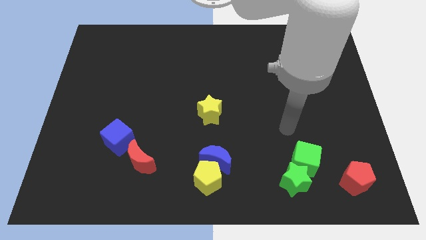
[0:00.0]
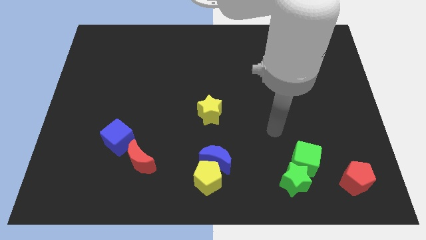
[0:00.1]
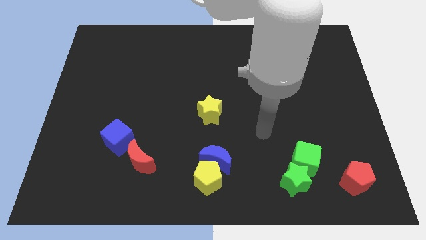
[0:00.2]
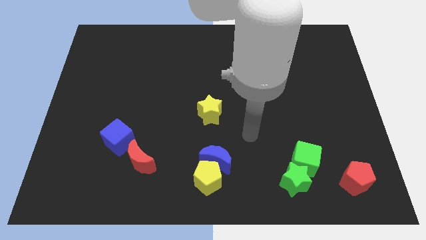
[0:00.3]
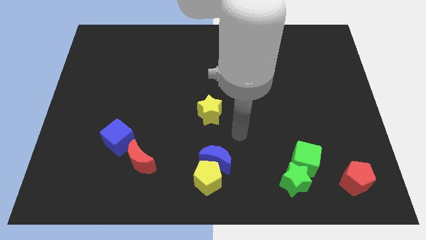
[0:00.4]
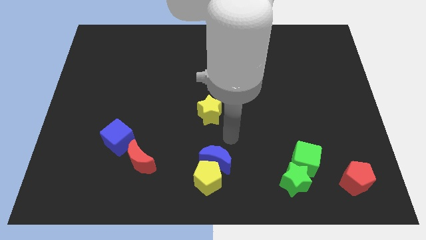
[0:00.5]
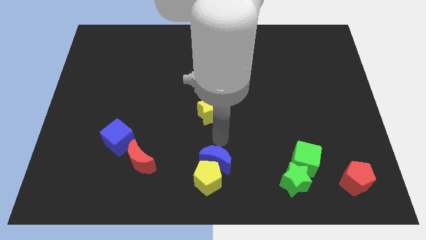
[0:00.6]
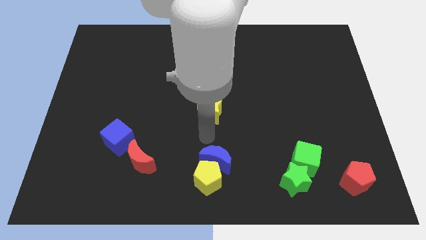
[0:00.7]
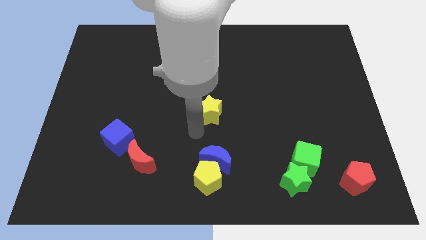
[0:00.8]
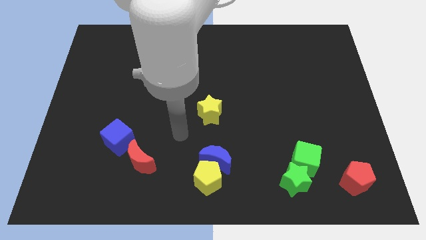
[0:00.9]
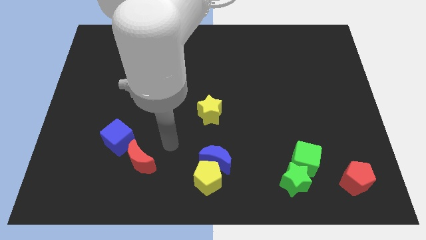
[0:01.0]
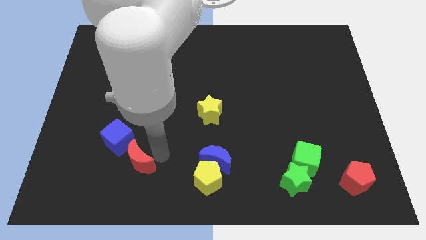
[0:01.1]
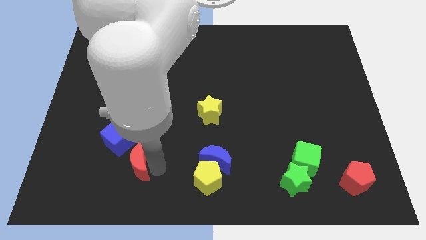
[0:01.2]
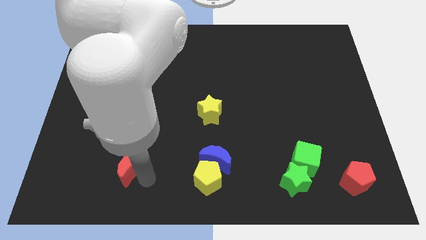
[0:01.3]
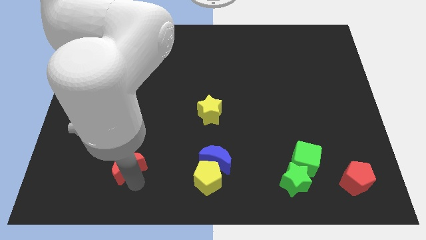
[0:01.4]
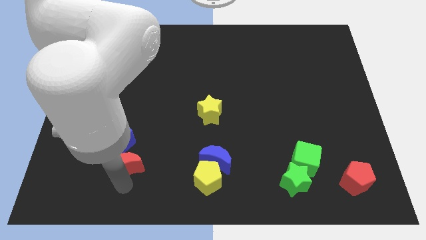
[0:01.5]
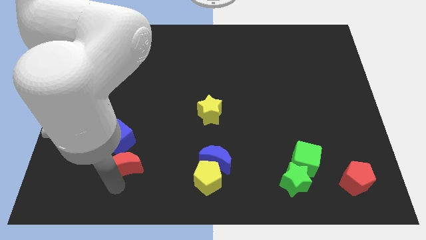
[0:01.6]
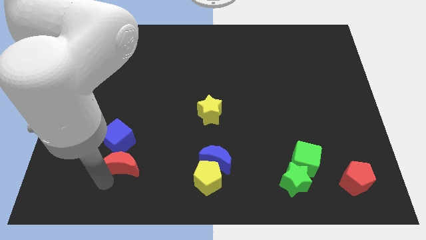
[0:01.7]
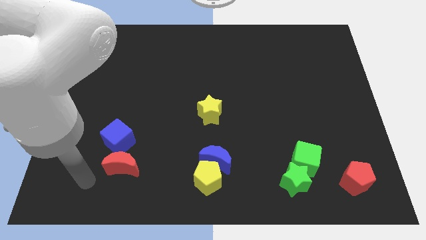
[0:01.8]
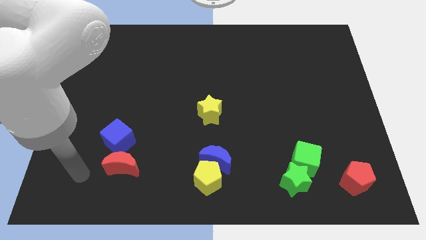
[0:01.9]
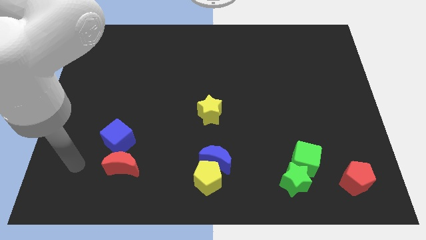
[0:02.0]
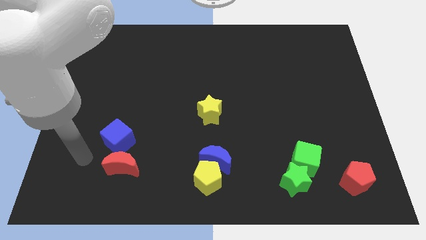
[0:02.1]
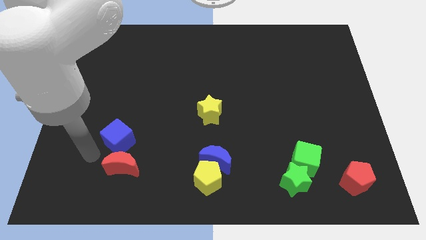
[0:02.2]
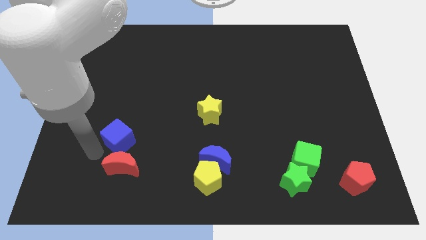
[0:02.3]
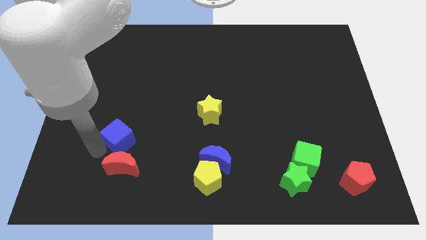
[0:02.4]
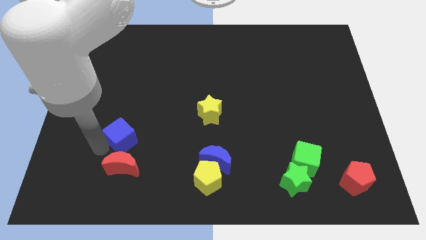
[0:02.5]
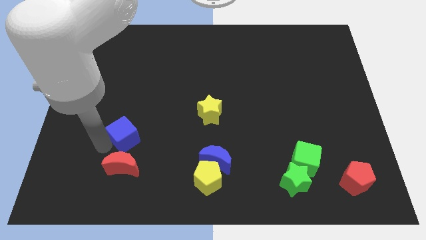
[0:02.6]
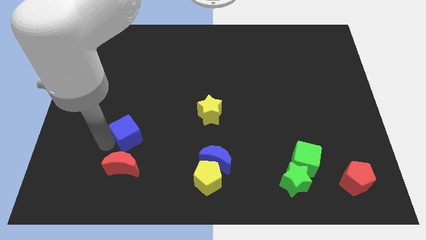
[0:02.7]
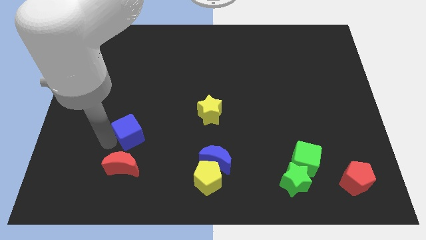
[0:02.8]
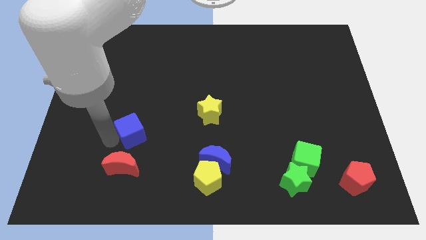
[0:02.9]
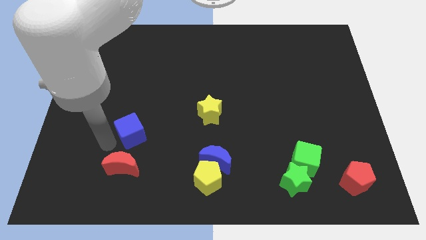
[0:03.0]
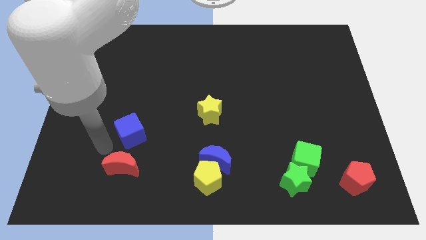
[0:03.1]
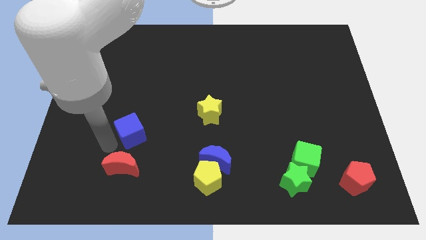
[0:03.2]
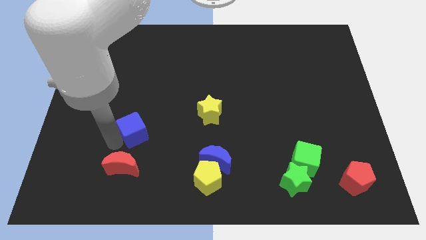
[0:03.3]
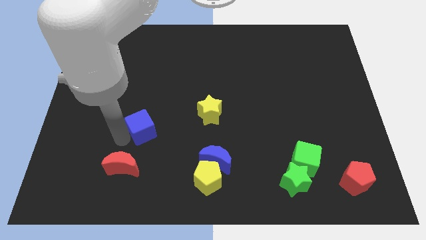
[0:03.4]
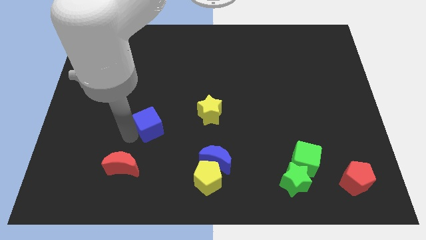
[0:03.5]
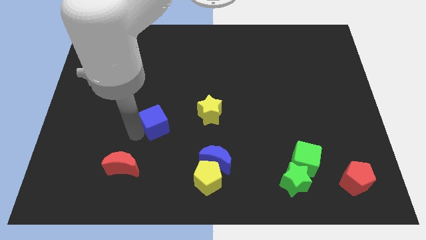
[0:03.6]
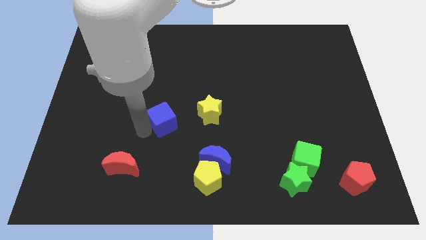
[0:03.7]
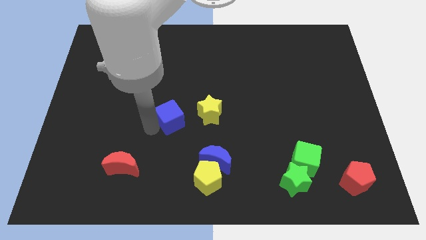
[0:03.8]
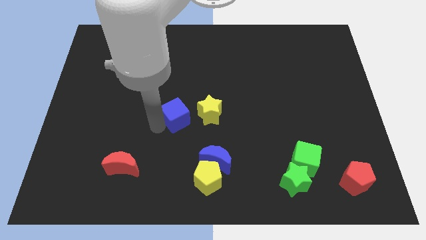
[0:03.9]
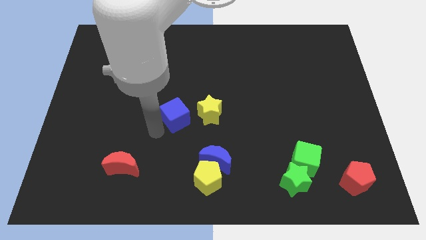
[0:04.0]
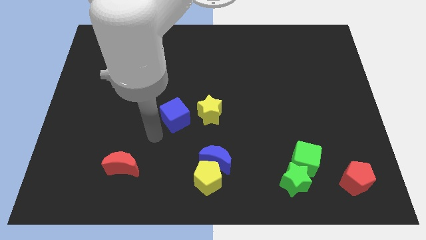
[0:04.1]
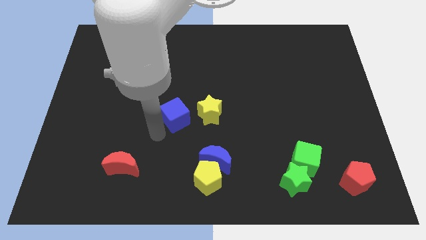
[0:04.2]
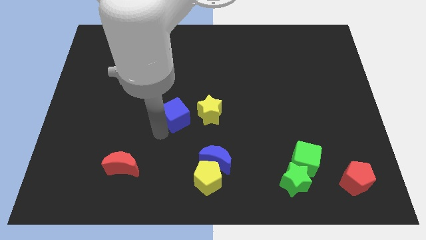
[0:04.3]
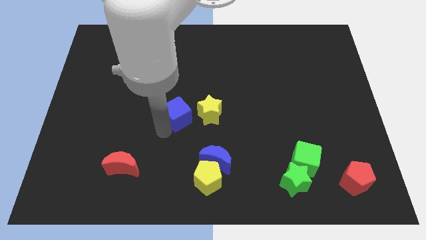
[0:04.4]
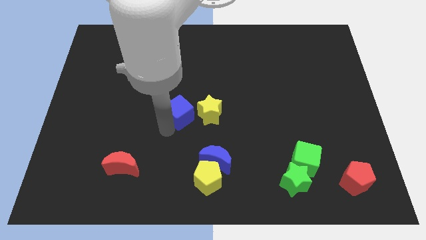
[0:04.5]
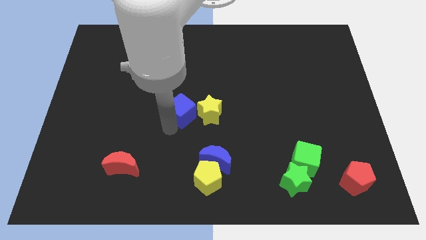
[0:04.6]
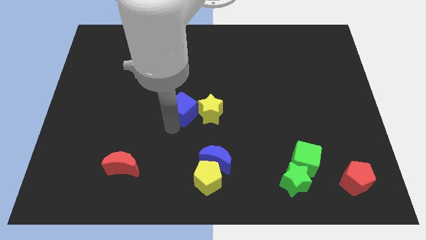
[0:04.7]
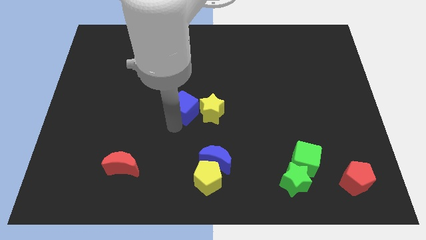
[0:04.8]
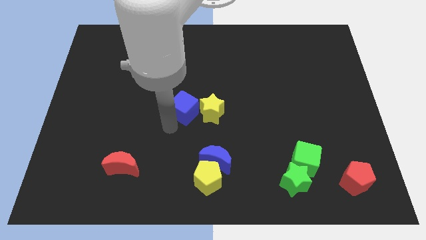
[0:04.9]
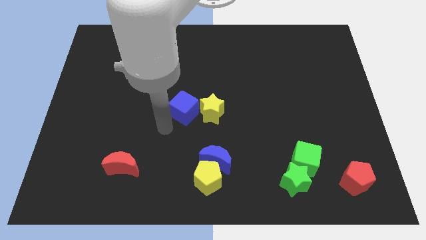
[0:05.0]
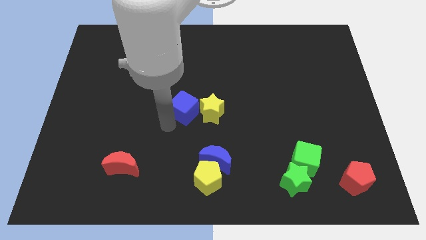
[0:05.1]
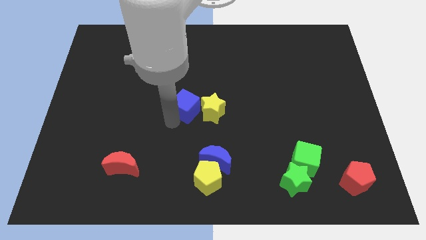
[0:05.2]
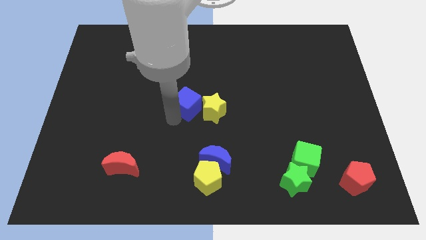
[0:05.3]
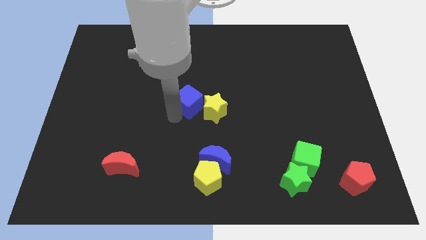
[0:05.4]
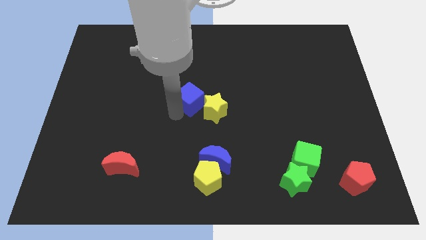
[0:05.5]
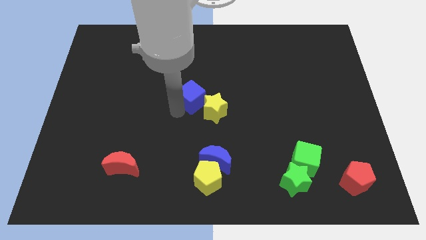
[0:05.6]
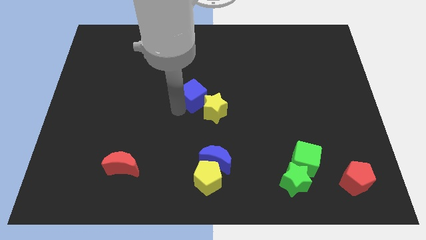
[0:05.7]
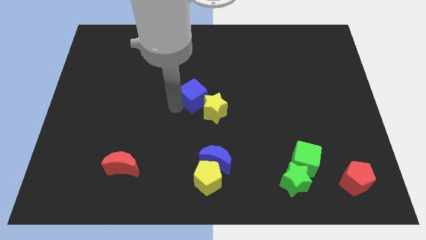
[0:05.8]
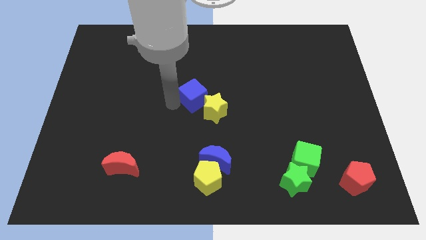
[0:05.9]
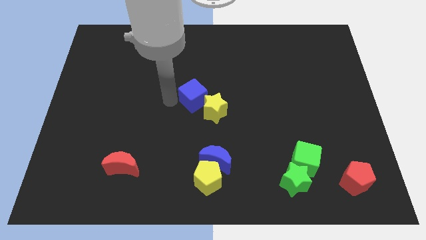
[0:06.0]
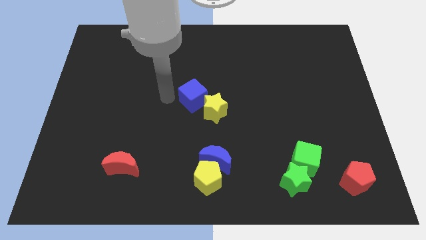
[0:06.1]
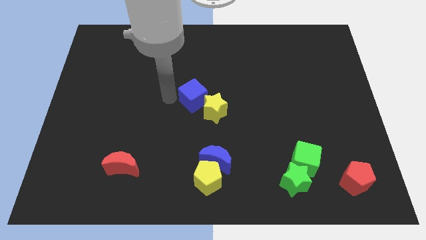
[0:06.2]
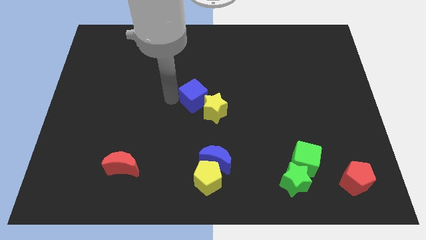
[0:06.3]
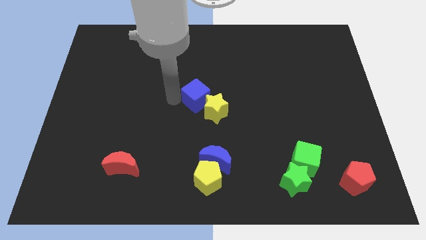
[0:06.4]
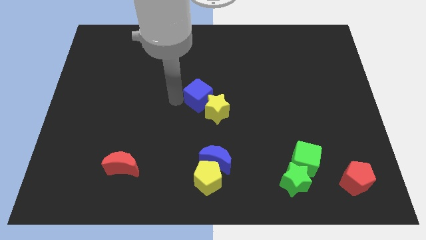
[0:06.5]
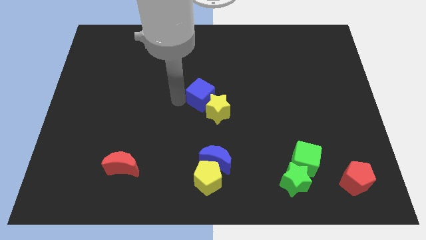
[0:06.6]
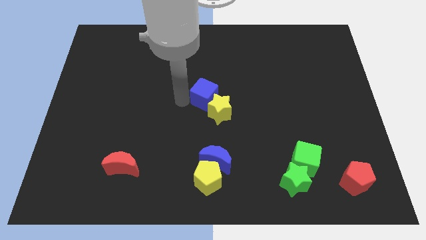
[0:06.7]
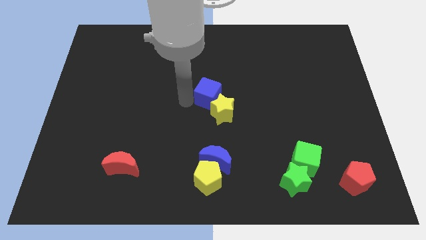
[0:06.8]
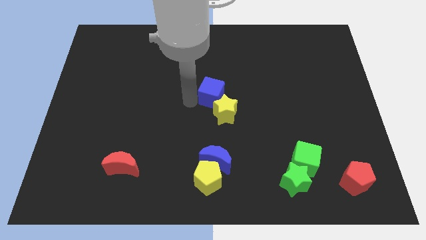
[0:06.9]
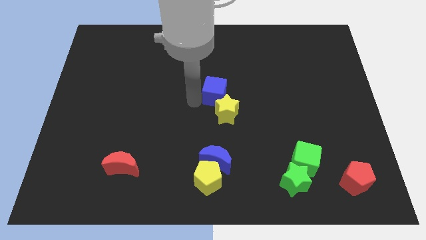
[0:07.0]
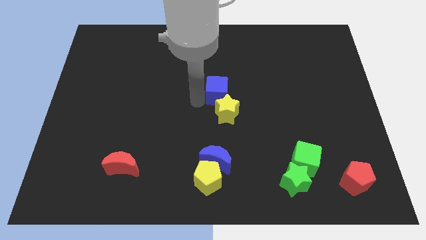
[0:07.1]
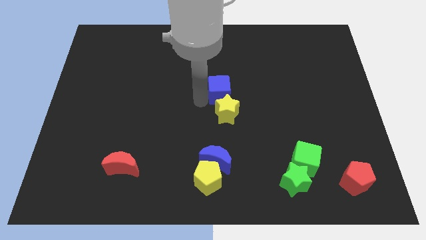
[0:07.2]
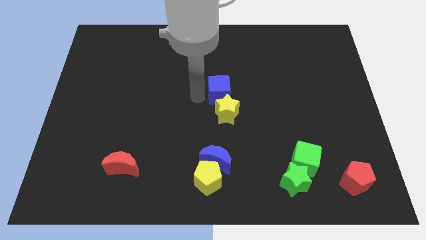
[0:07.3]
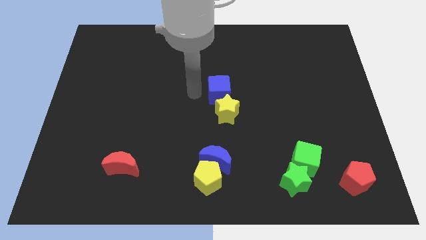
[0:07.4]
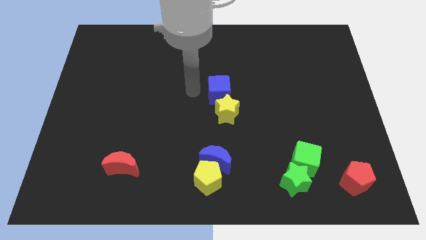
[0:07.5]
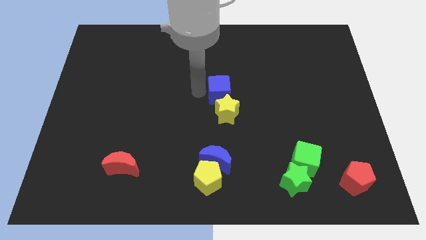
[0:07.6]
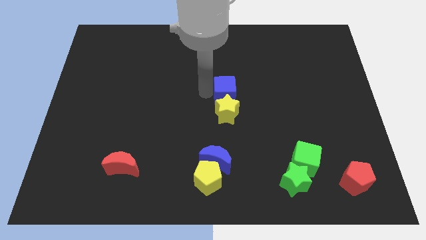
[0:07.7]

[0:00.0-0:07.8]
slide the blue cube to the top right of the yellow star
